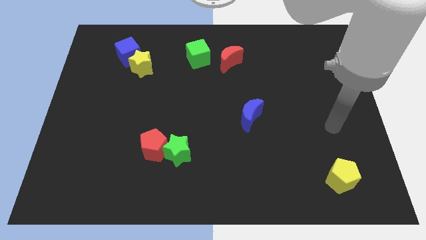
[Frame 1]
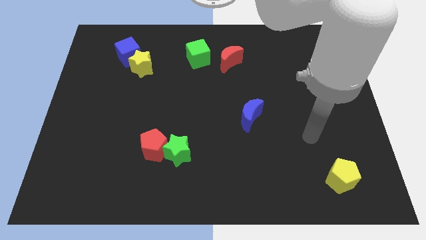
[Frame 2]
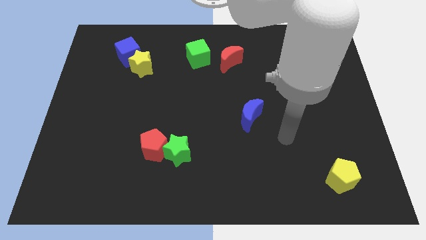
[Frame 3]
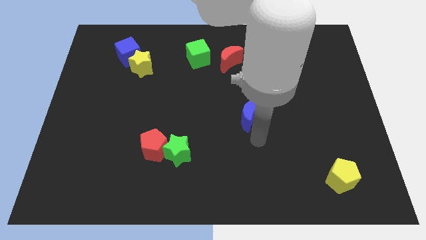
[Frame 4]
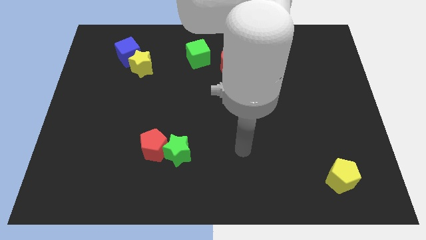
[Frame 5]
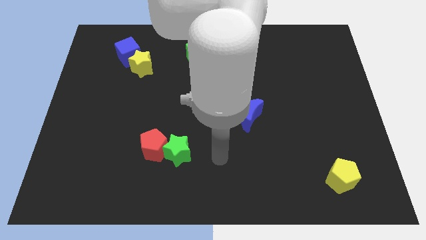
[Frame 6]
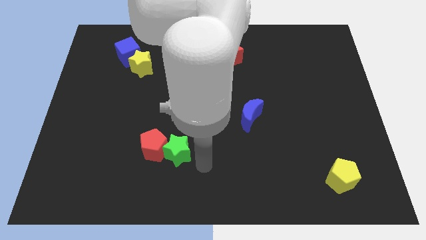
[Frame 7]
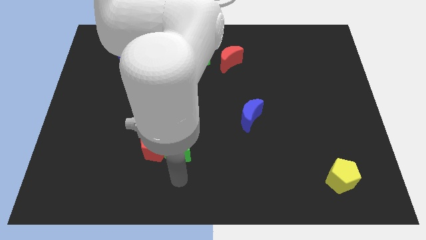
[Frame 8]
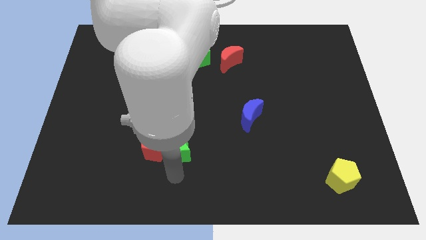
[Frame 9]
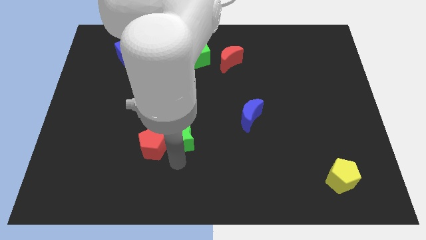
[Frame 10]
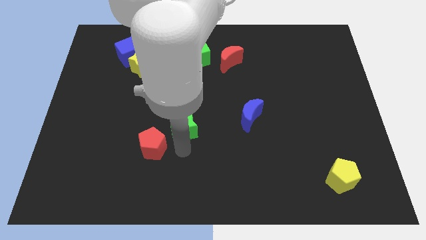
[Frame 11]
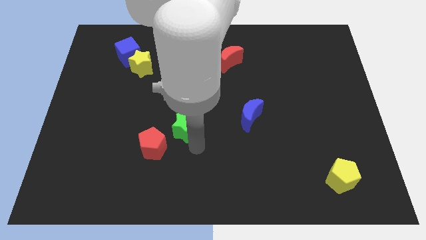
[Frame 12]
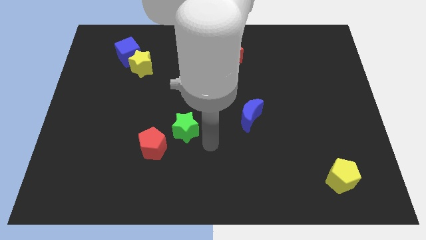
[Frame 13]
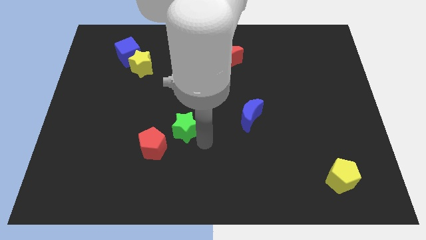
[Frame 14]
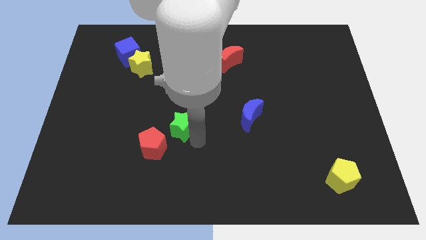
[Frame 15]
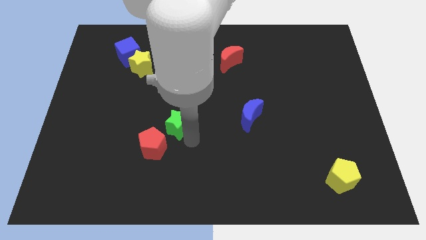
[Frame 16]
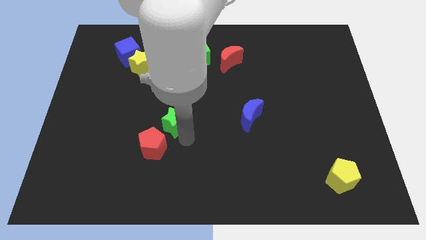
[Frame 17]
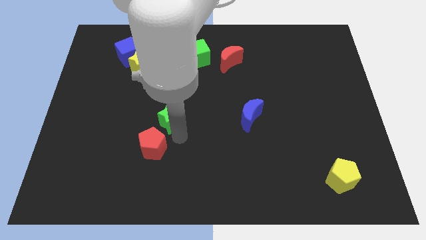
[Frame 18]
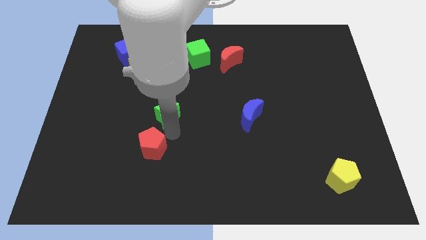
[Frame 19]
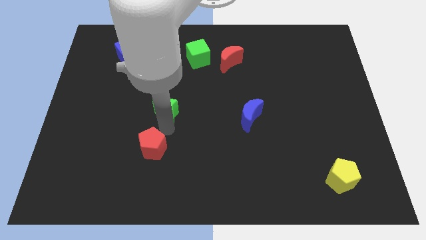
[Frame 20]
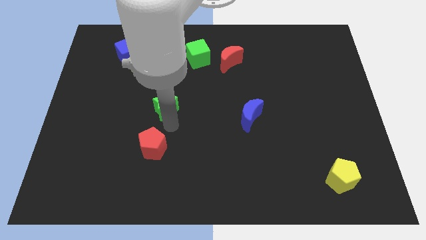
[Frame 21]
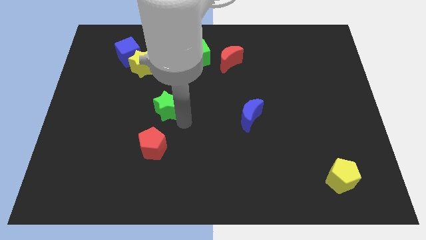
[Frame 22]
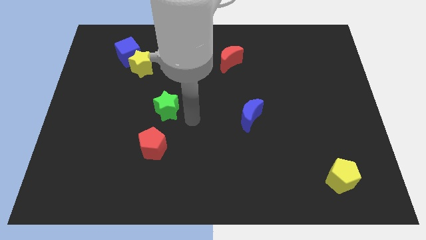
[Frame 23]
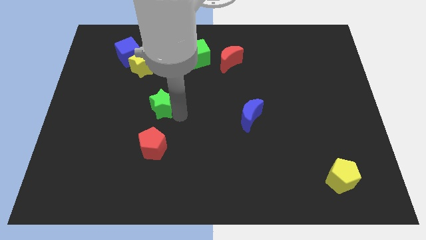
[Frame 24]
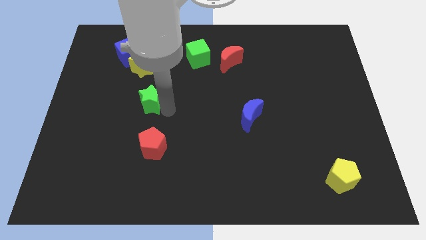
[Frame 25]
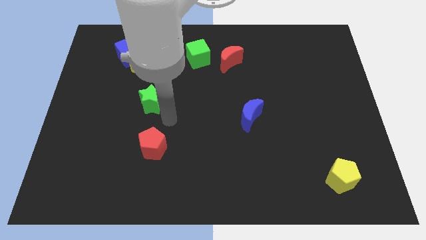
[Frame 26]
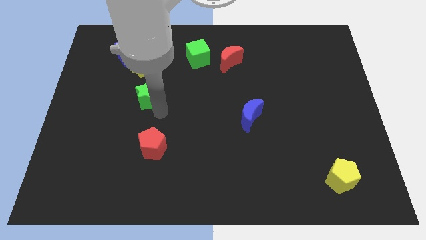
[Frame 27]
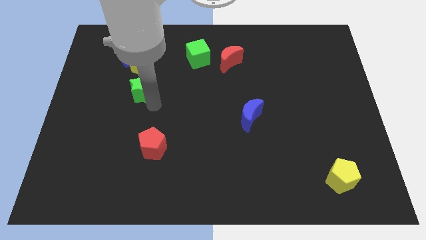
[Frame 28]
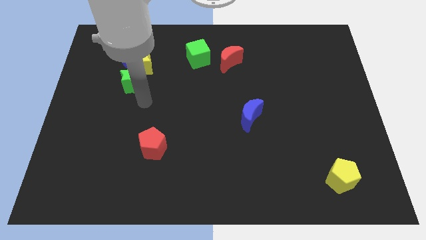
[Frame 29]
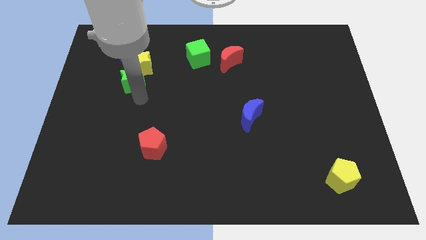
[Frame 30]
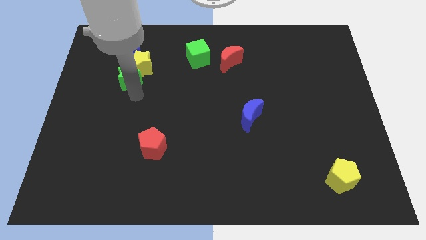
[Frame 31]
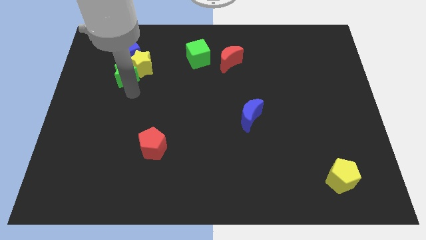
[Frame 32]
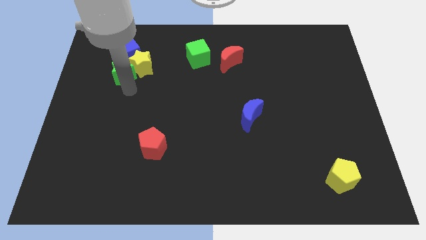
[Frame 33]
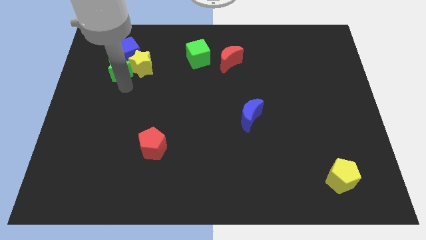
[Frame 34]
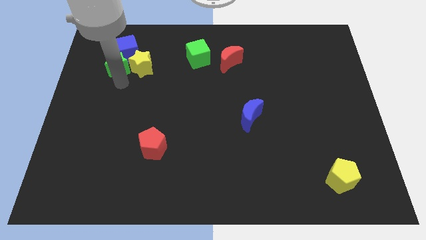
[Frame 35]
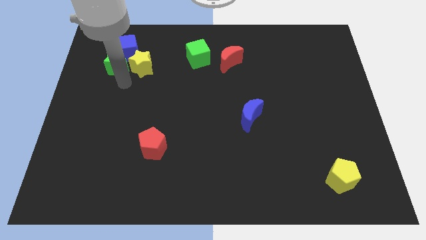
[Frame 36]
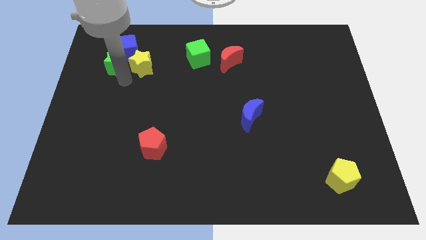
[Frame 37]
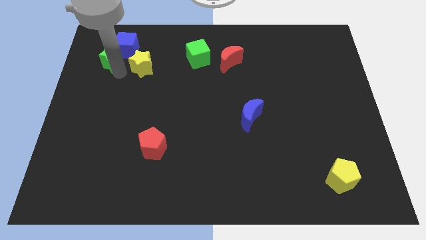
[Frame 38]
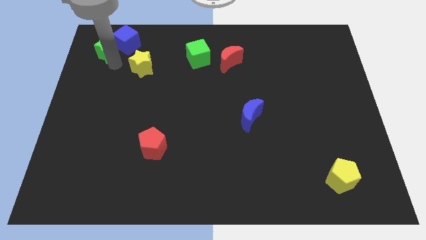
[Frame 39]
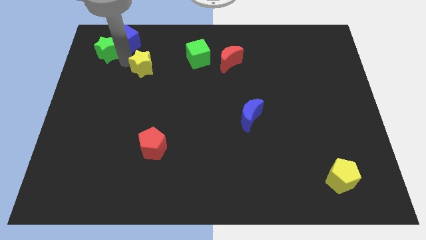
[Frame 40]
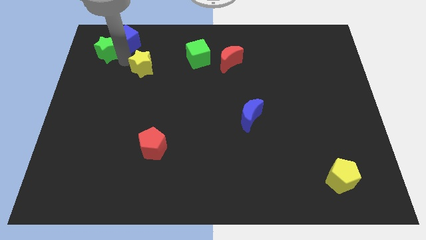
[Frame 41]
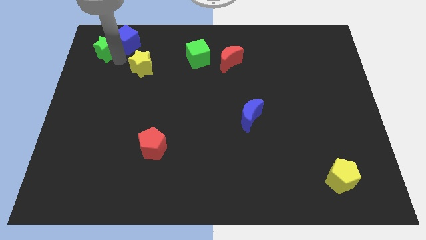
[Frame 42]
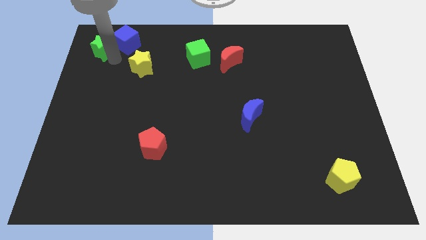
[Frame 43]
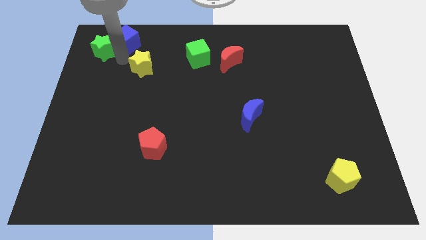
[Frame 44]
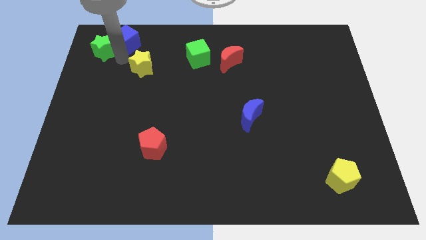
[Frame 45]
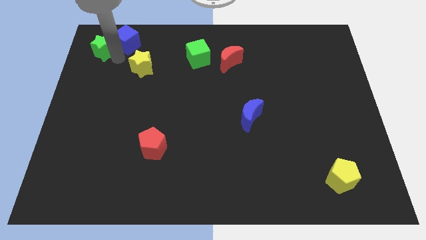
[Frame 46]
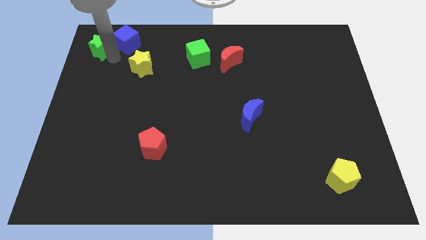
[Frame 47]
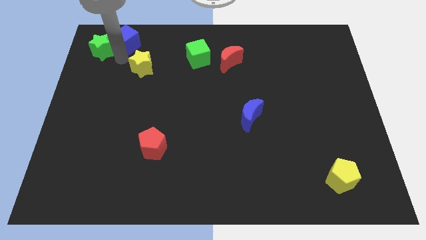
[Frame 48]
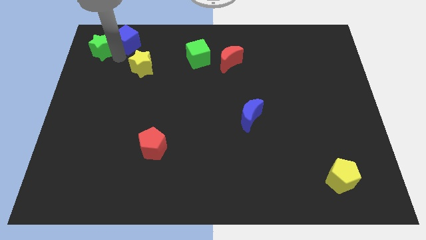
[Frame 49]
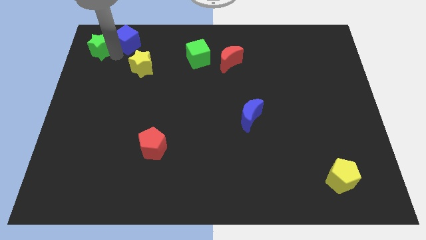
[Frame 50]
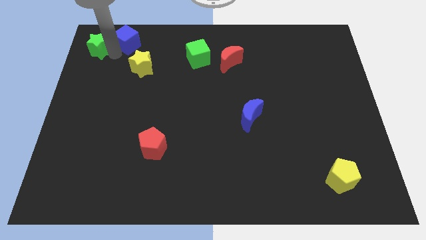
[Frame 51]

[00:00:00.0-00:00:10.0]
put the green star to the top left

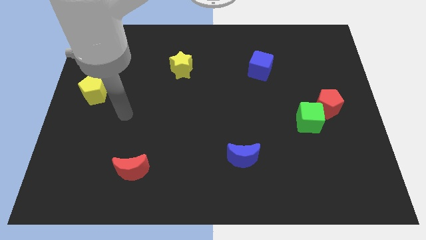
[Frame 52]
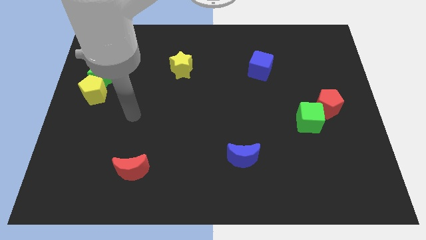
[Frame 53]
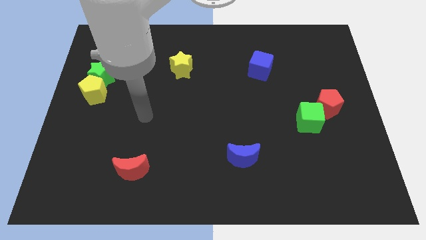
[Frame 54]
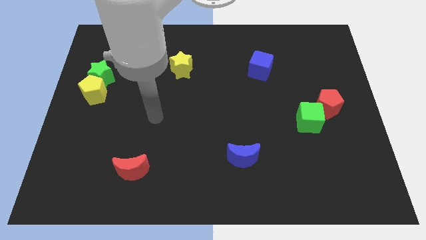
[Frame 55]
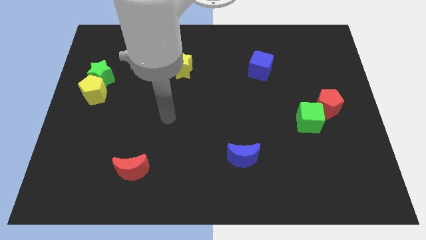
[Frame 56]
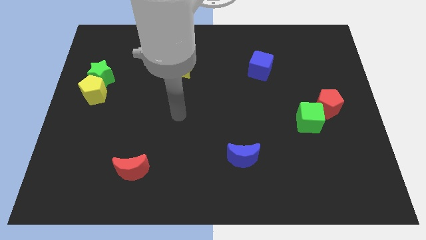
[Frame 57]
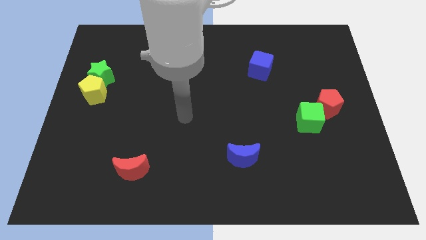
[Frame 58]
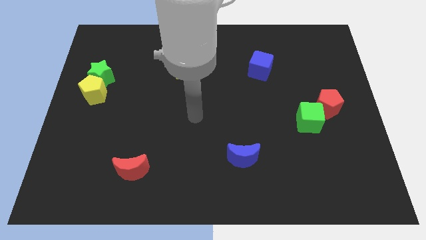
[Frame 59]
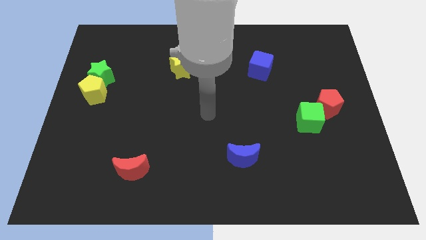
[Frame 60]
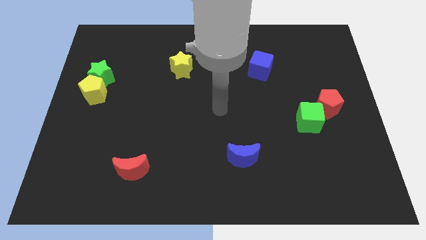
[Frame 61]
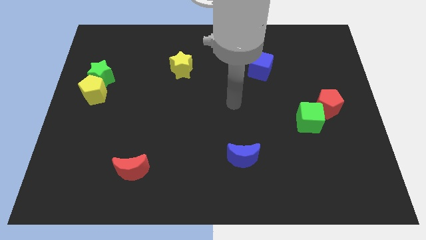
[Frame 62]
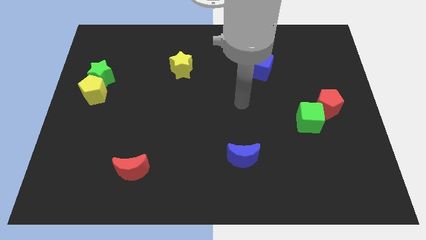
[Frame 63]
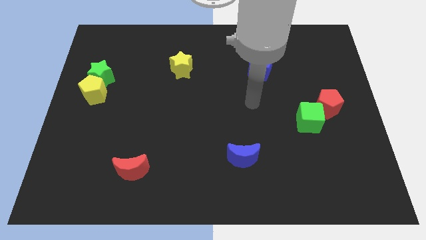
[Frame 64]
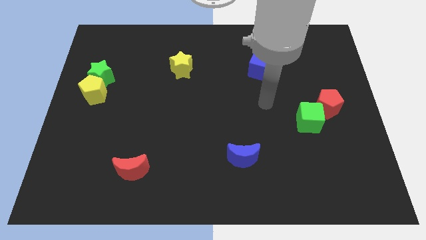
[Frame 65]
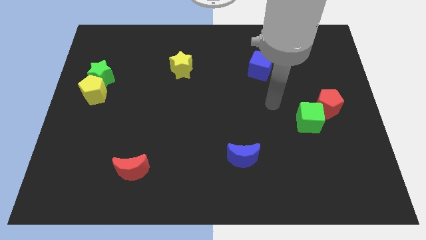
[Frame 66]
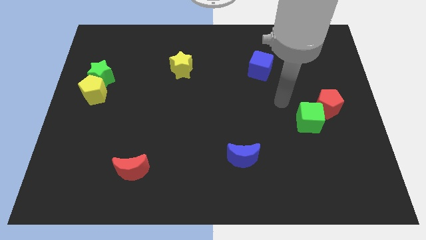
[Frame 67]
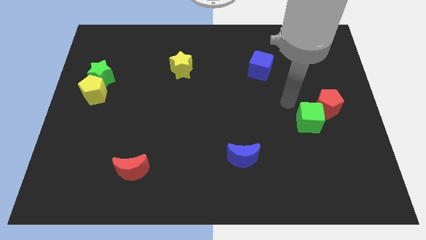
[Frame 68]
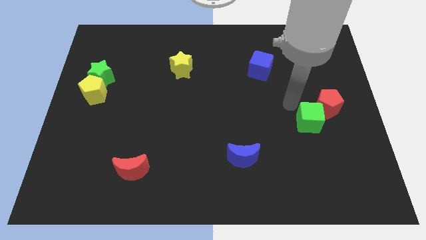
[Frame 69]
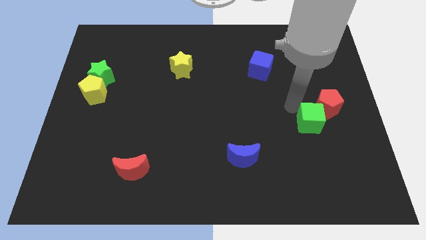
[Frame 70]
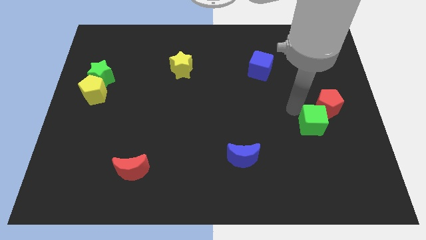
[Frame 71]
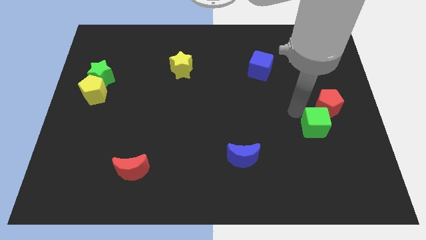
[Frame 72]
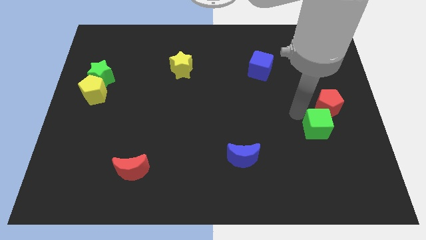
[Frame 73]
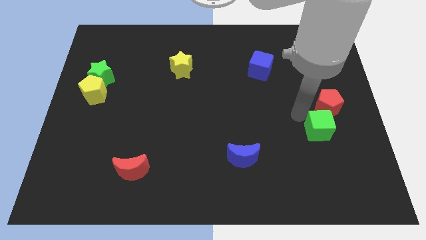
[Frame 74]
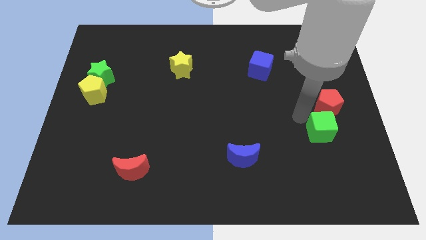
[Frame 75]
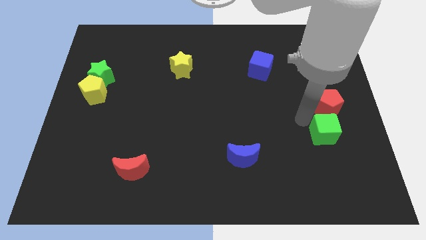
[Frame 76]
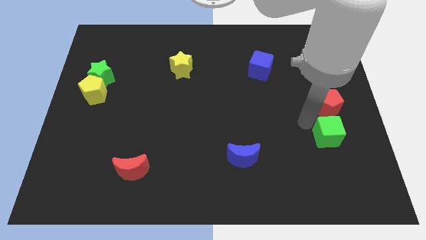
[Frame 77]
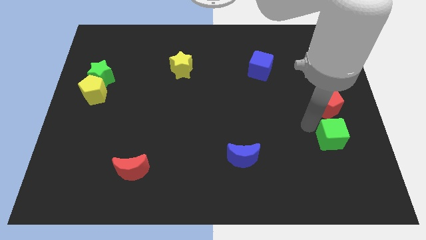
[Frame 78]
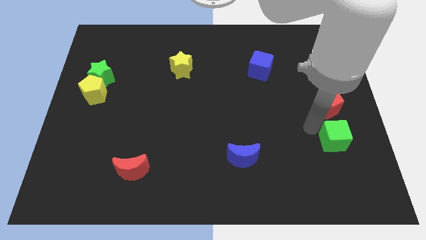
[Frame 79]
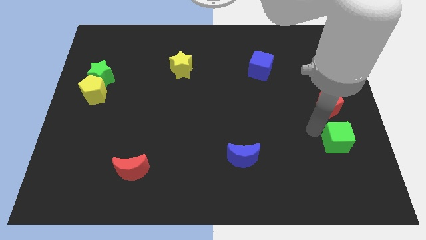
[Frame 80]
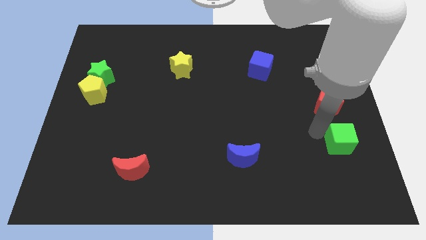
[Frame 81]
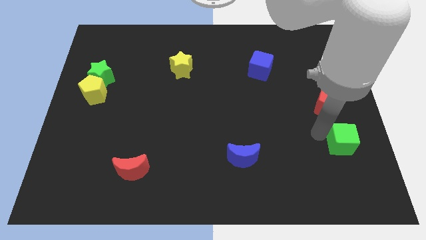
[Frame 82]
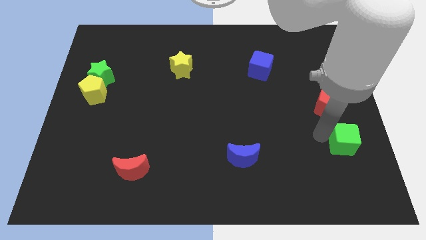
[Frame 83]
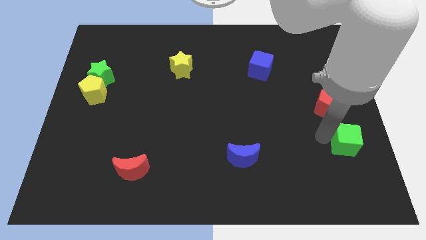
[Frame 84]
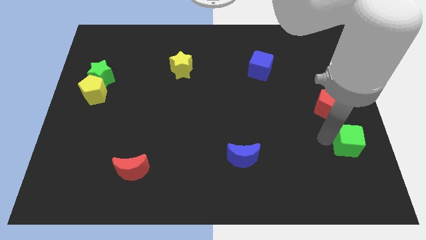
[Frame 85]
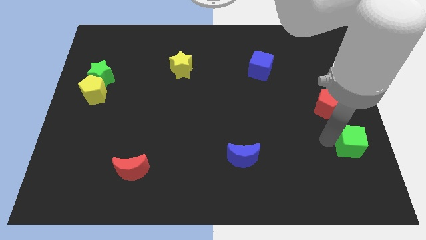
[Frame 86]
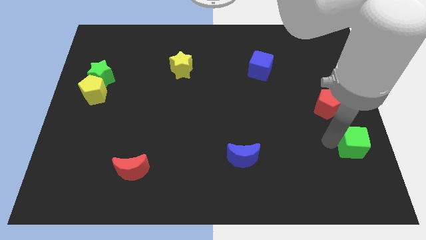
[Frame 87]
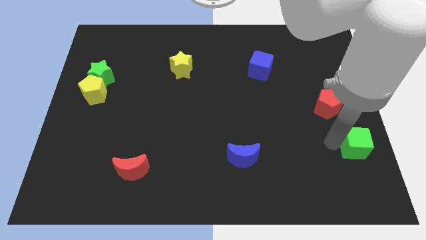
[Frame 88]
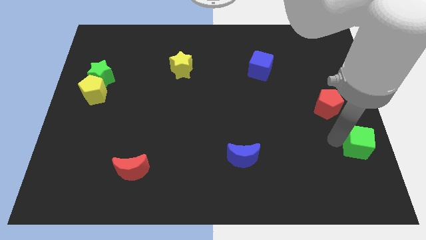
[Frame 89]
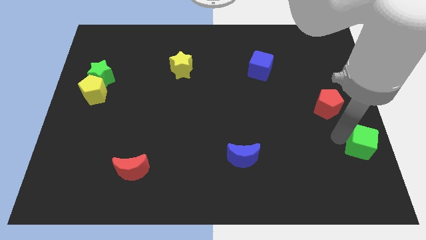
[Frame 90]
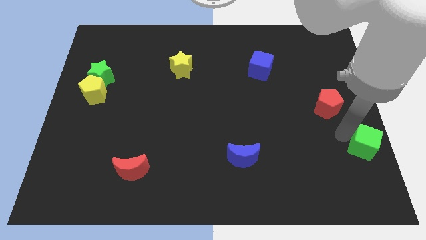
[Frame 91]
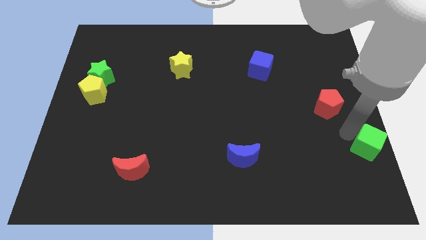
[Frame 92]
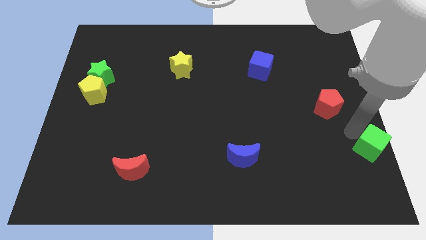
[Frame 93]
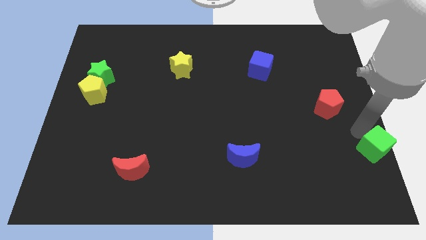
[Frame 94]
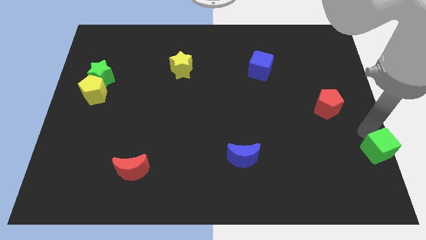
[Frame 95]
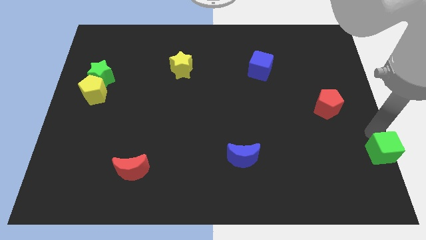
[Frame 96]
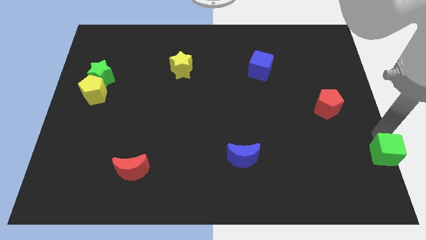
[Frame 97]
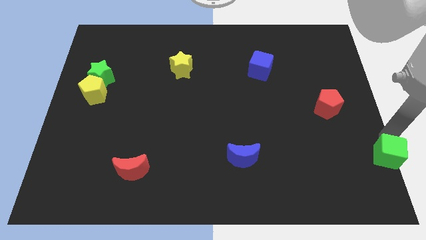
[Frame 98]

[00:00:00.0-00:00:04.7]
slide the green cube to the bottom right
